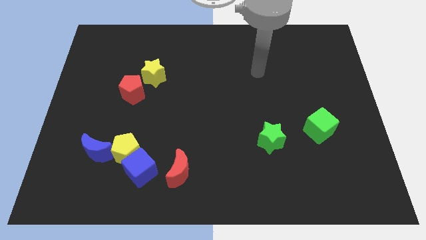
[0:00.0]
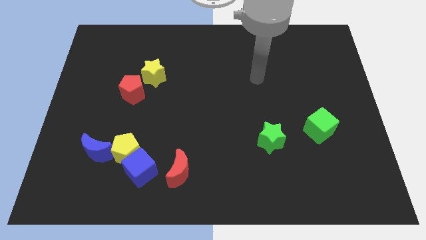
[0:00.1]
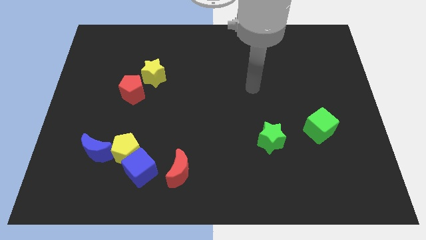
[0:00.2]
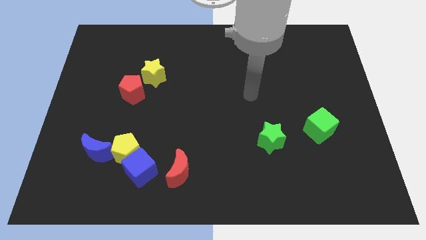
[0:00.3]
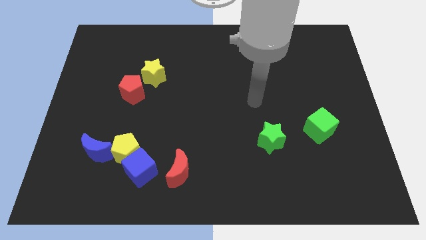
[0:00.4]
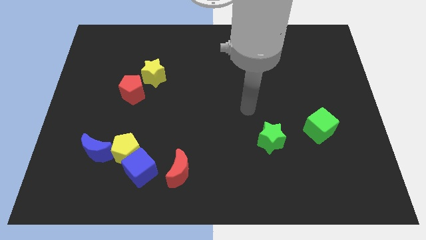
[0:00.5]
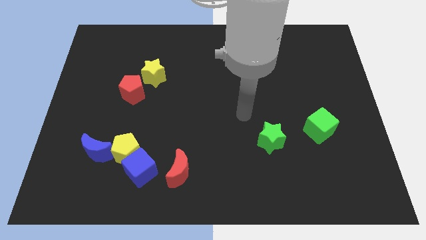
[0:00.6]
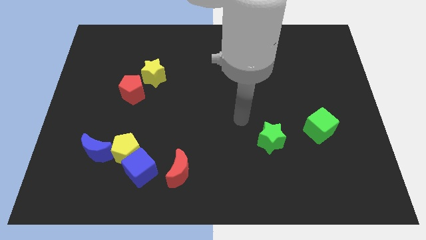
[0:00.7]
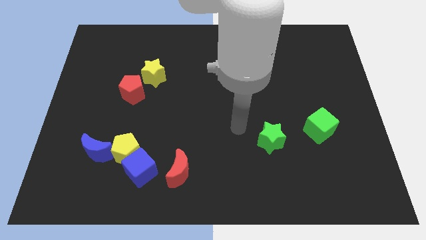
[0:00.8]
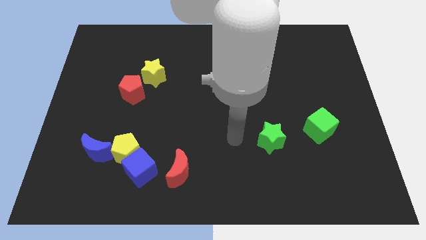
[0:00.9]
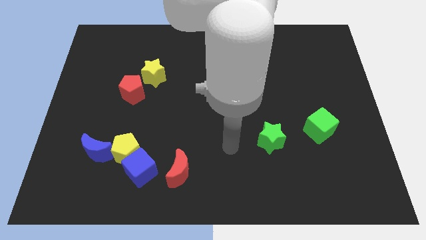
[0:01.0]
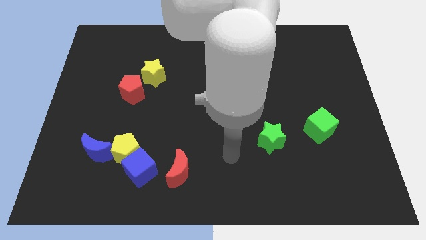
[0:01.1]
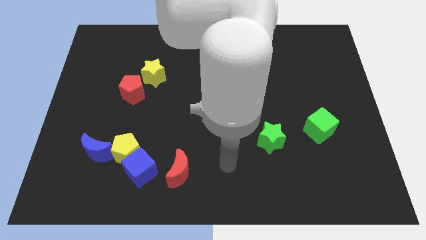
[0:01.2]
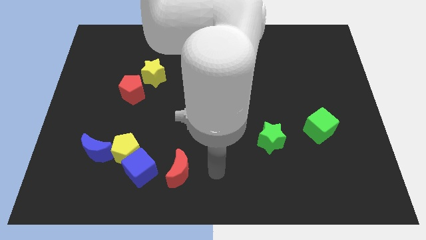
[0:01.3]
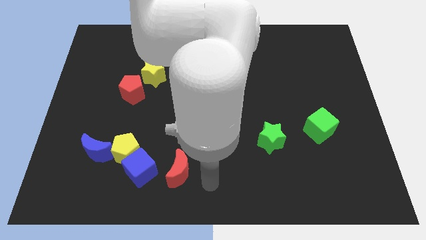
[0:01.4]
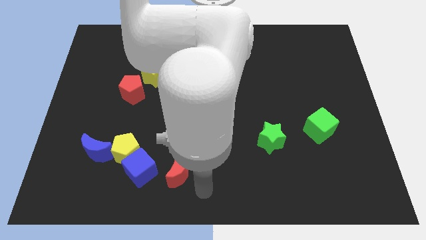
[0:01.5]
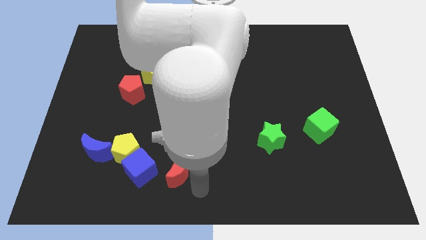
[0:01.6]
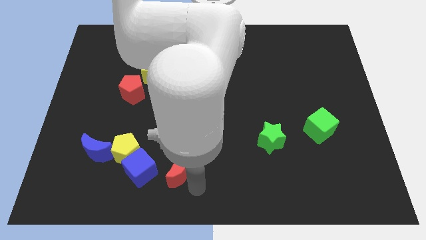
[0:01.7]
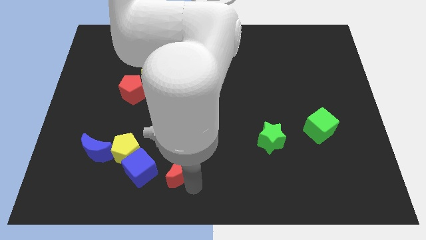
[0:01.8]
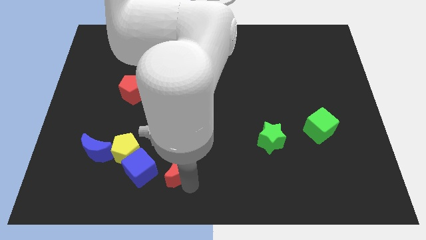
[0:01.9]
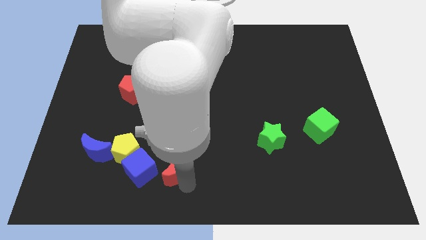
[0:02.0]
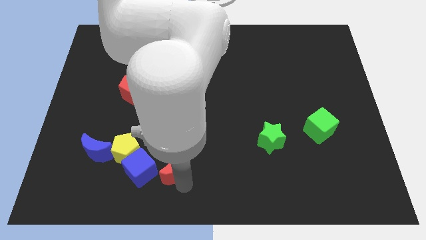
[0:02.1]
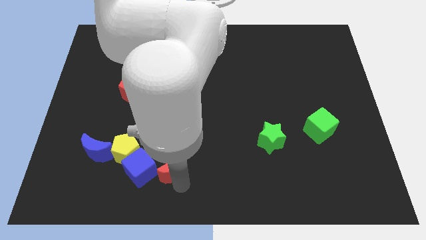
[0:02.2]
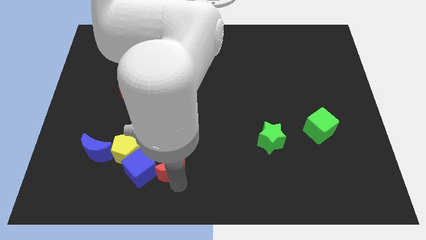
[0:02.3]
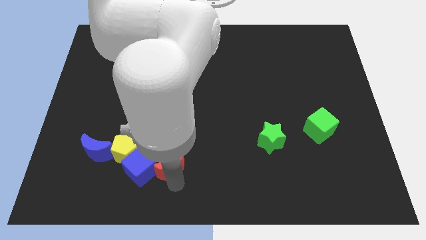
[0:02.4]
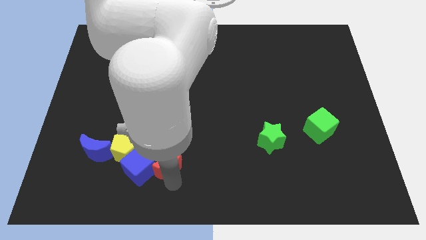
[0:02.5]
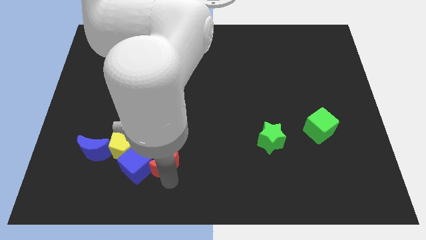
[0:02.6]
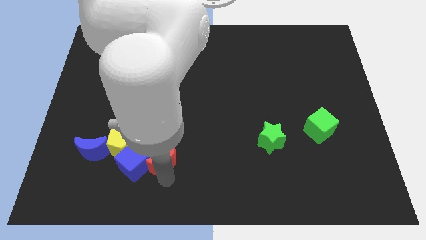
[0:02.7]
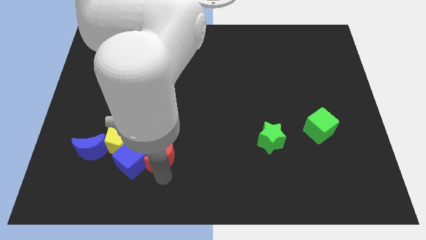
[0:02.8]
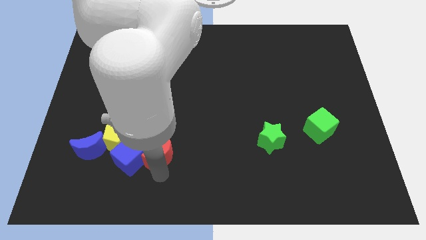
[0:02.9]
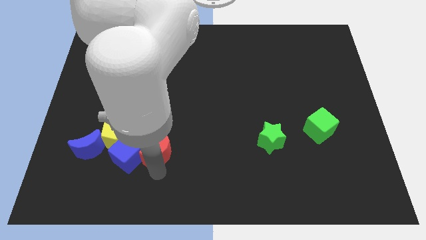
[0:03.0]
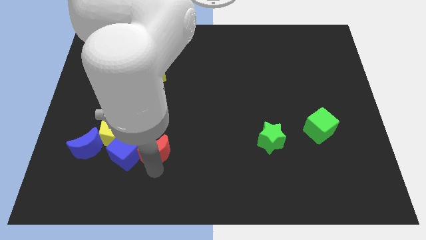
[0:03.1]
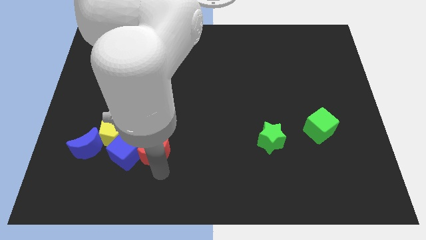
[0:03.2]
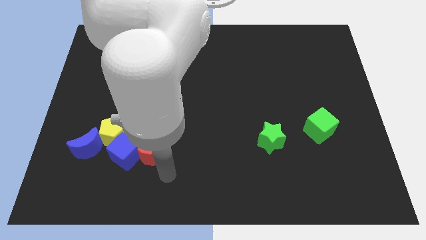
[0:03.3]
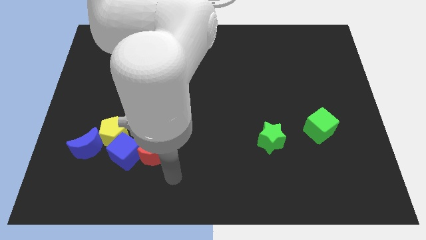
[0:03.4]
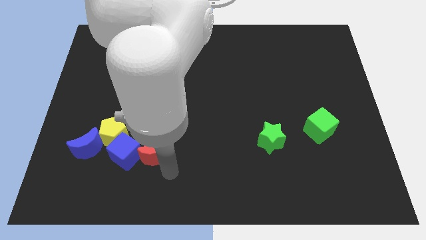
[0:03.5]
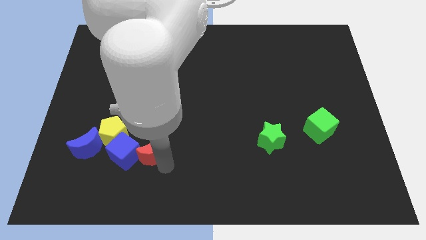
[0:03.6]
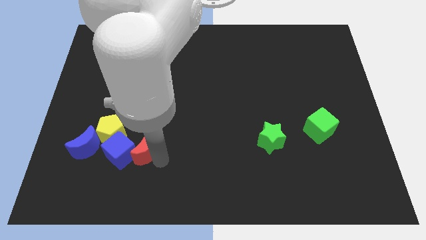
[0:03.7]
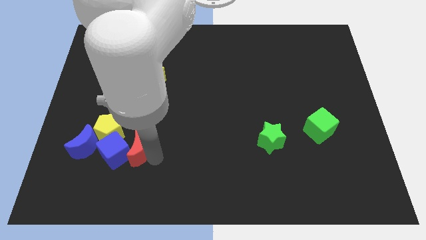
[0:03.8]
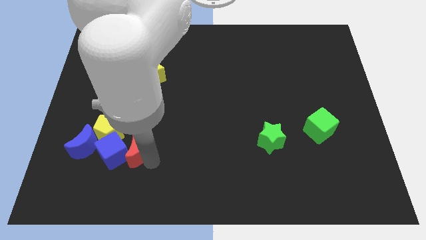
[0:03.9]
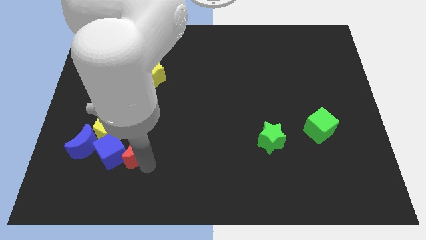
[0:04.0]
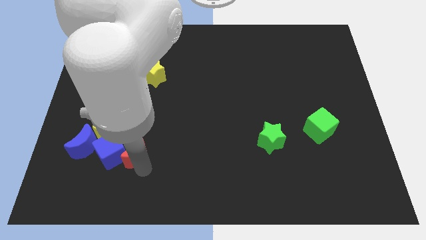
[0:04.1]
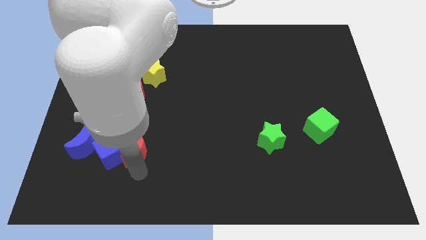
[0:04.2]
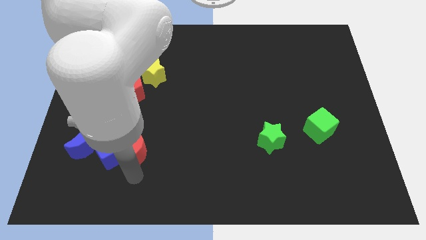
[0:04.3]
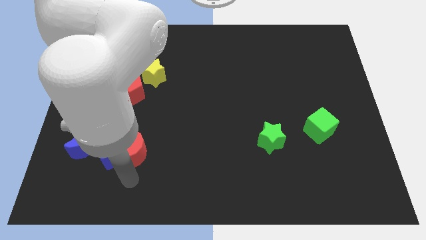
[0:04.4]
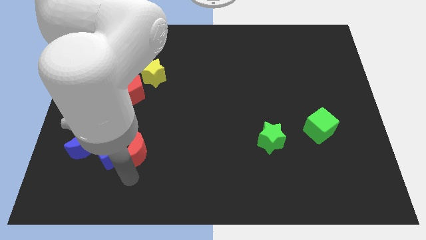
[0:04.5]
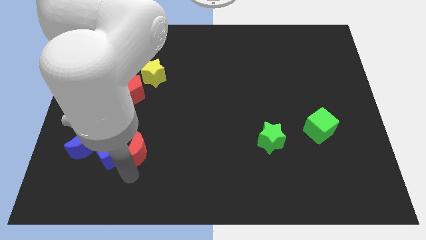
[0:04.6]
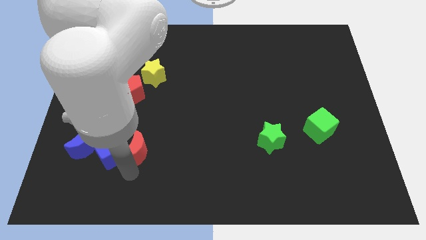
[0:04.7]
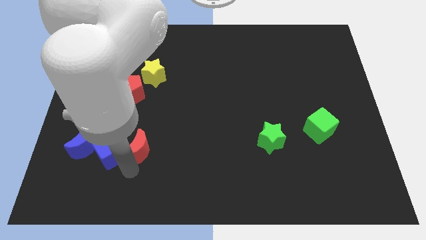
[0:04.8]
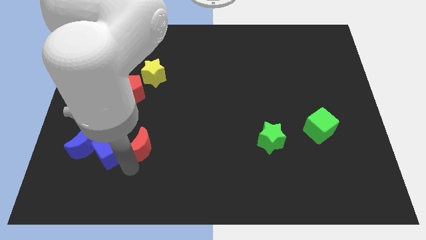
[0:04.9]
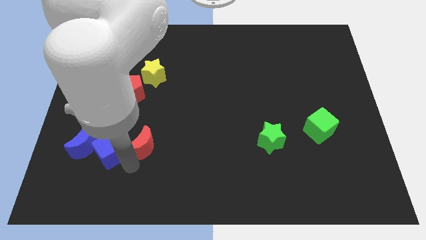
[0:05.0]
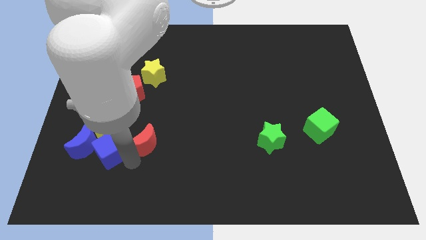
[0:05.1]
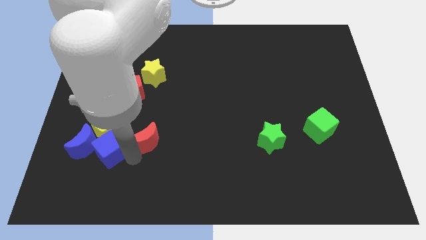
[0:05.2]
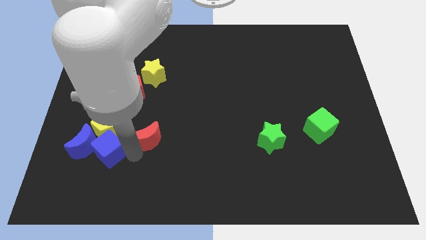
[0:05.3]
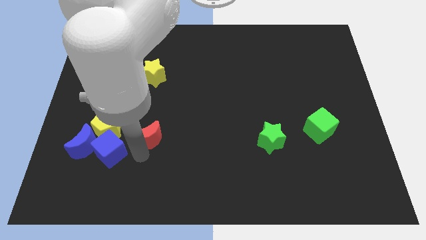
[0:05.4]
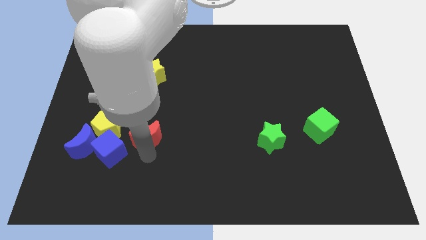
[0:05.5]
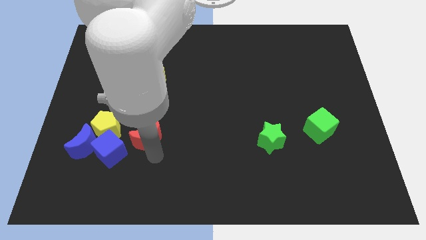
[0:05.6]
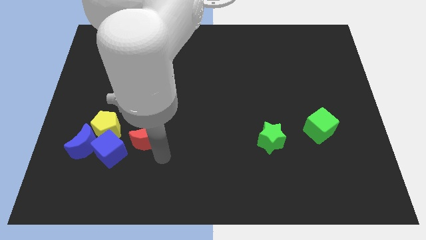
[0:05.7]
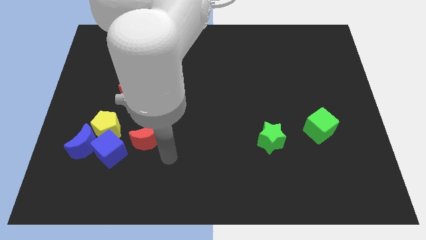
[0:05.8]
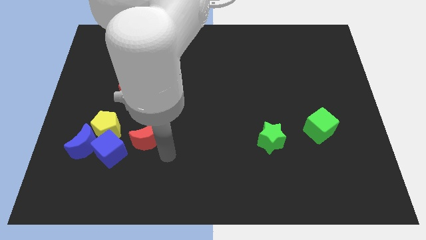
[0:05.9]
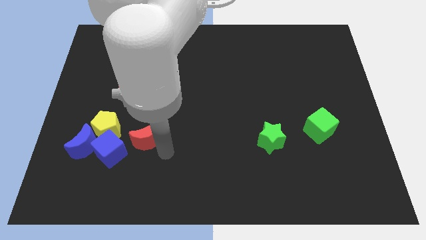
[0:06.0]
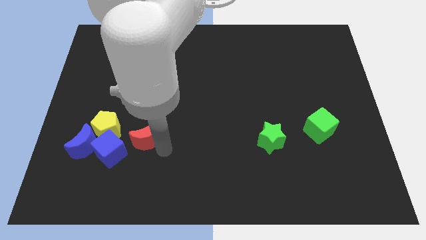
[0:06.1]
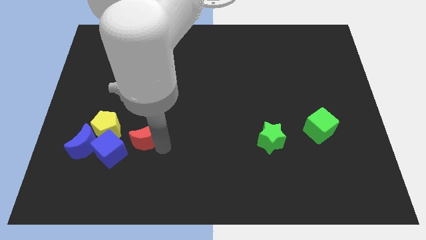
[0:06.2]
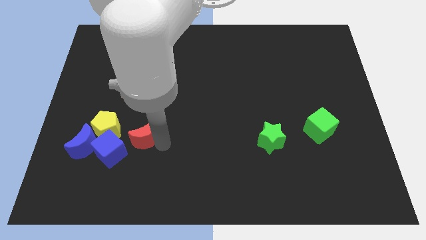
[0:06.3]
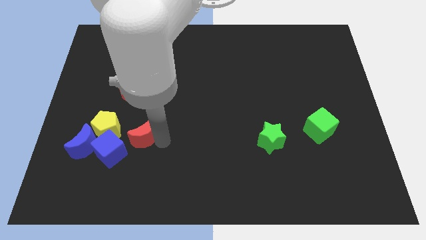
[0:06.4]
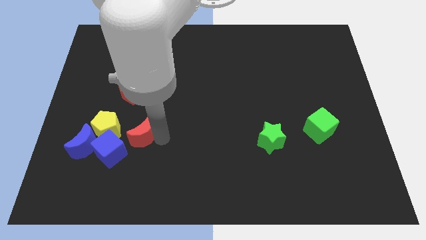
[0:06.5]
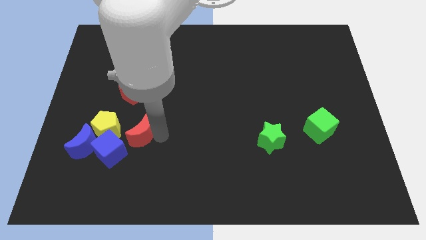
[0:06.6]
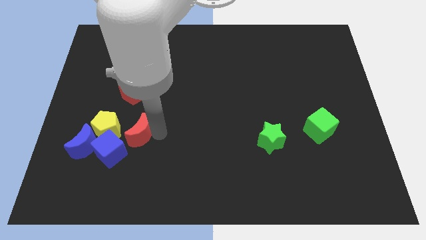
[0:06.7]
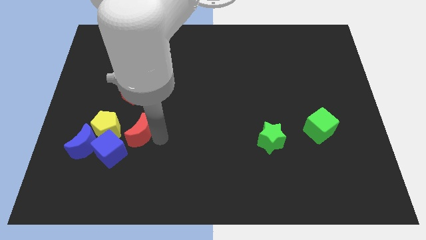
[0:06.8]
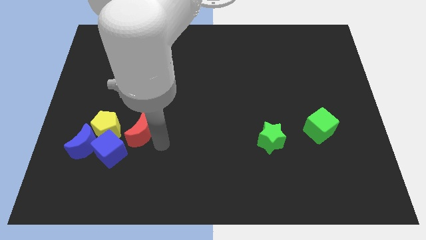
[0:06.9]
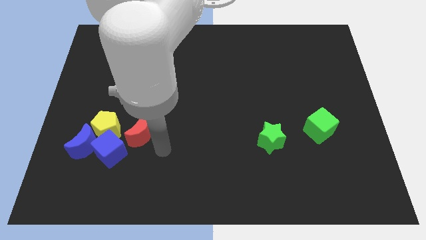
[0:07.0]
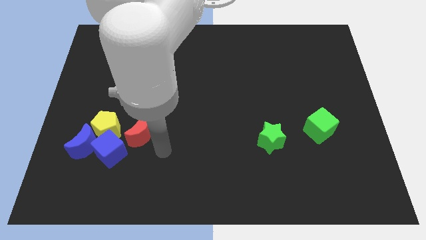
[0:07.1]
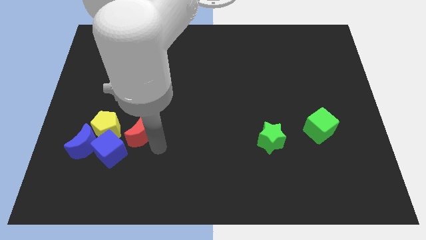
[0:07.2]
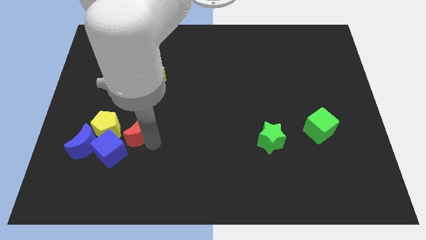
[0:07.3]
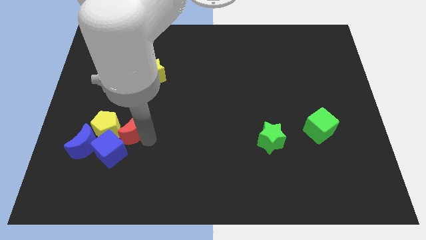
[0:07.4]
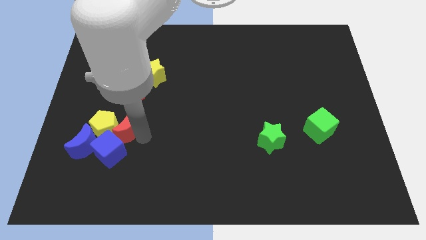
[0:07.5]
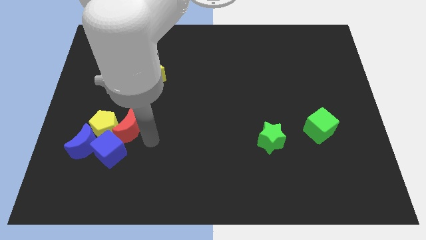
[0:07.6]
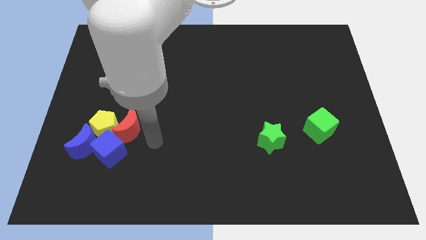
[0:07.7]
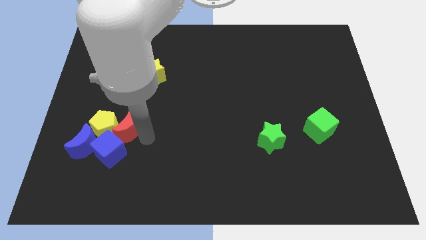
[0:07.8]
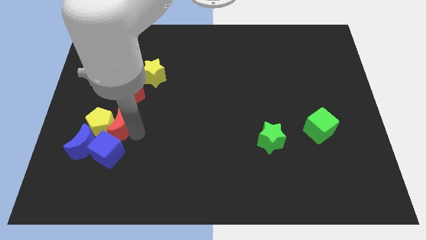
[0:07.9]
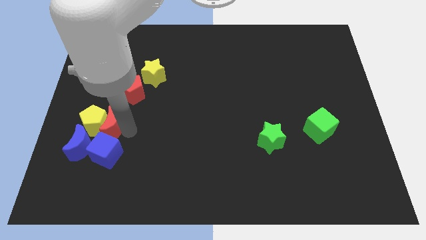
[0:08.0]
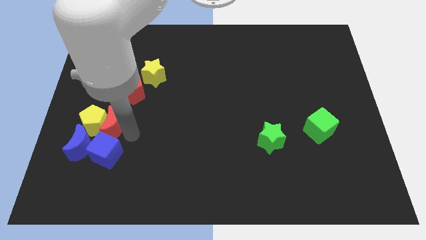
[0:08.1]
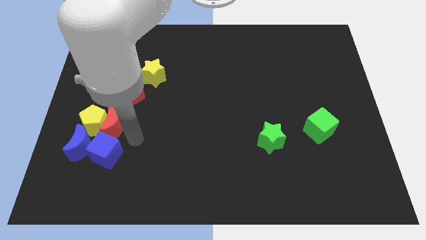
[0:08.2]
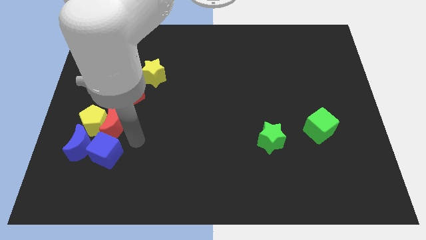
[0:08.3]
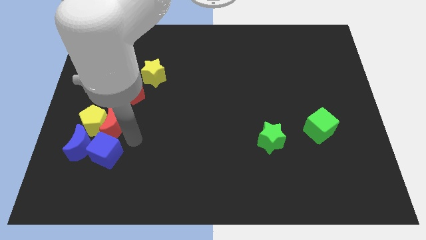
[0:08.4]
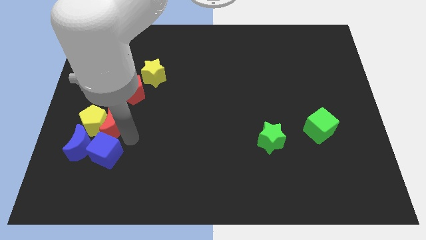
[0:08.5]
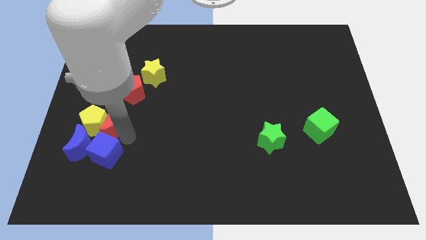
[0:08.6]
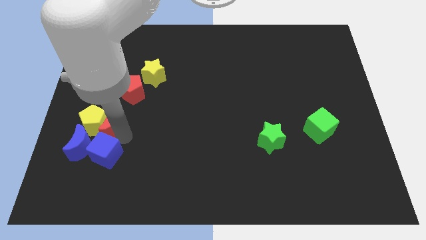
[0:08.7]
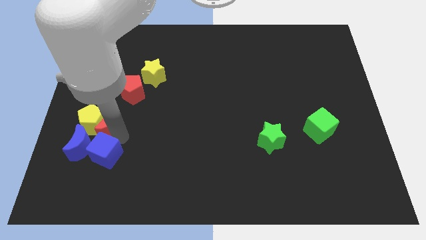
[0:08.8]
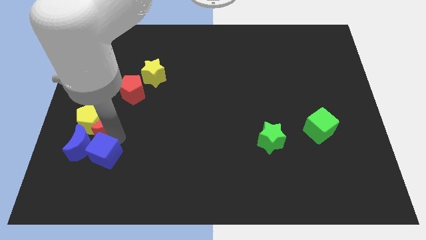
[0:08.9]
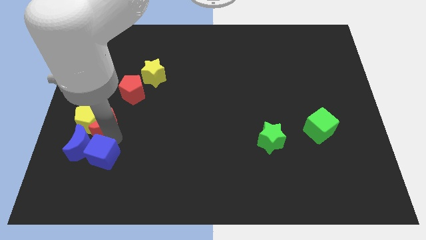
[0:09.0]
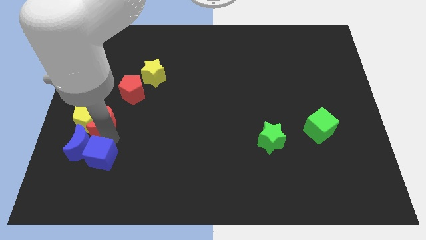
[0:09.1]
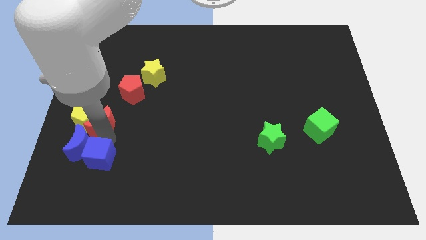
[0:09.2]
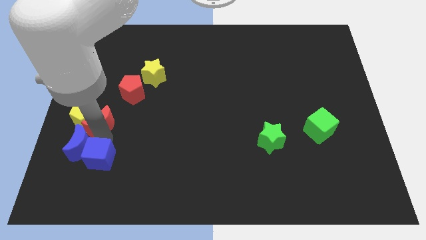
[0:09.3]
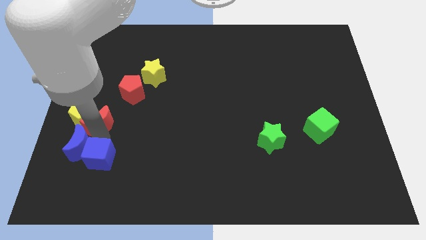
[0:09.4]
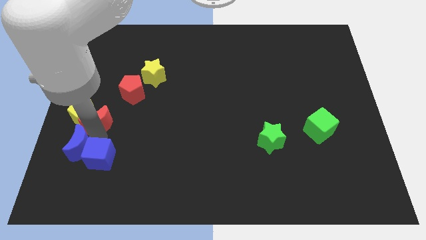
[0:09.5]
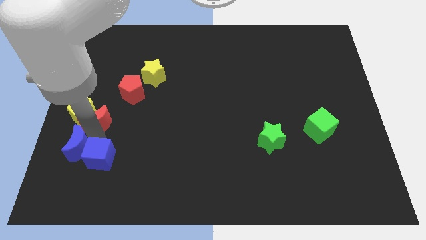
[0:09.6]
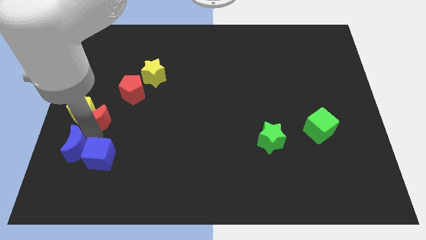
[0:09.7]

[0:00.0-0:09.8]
slide the red moon to the left side of the board
